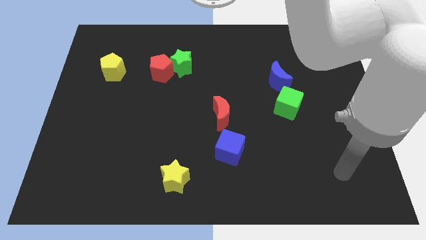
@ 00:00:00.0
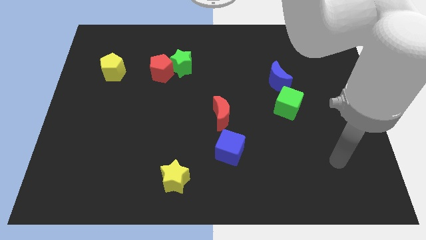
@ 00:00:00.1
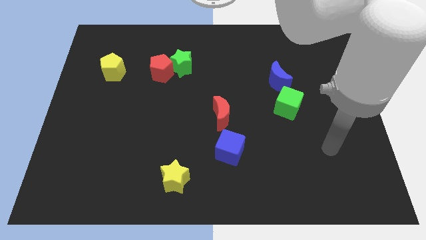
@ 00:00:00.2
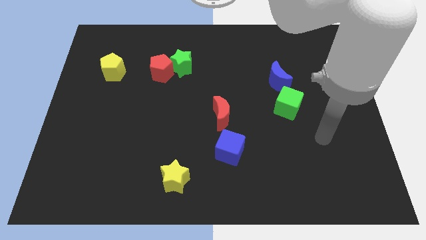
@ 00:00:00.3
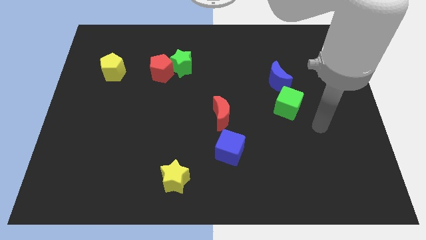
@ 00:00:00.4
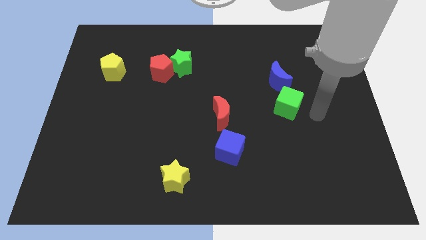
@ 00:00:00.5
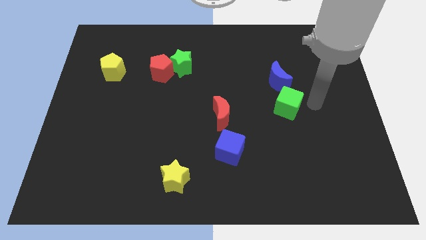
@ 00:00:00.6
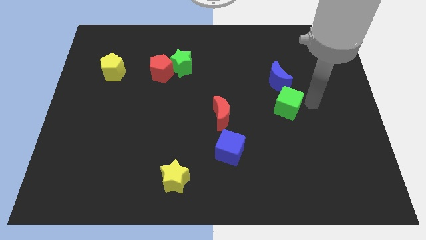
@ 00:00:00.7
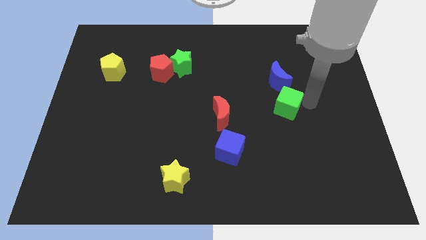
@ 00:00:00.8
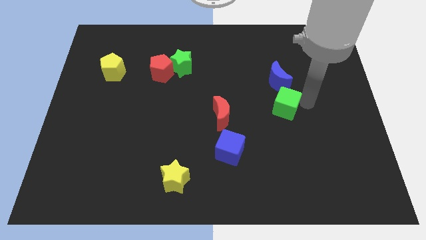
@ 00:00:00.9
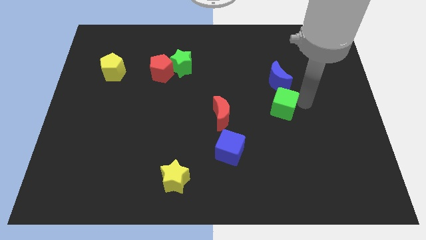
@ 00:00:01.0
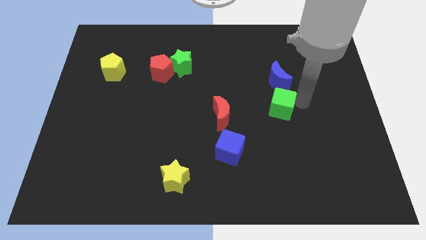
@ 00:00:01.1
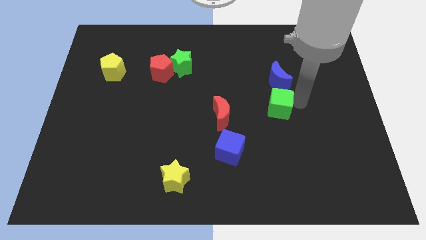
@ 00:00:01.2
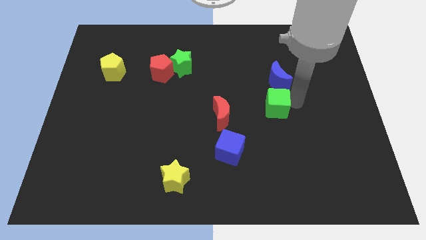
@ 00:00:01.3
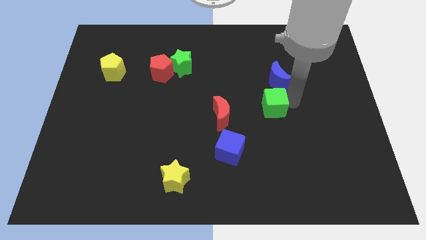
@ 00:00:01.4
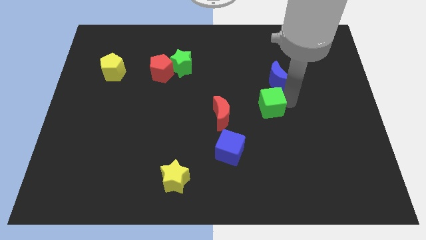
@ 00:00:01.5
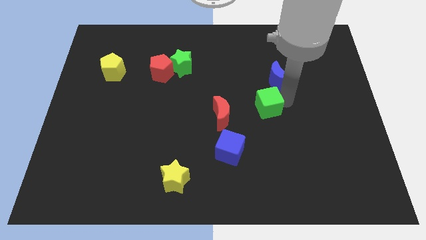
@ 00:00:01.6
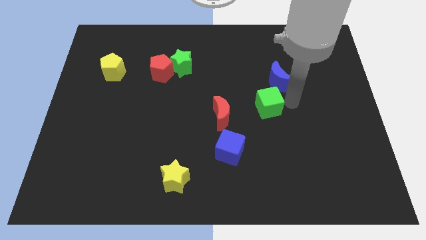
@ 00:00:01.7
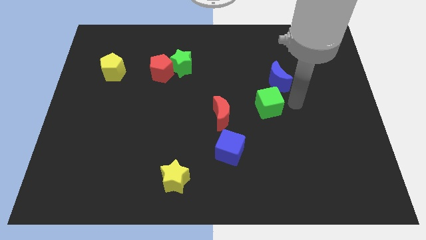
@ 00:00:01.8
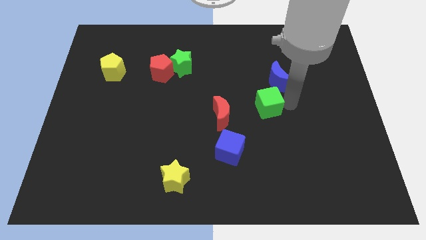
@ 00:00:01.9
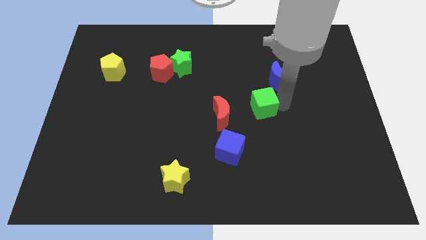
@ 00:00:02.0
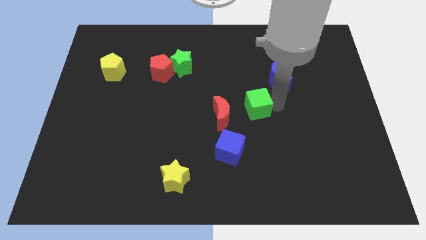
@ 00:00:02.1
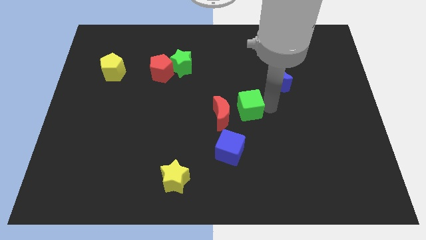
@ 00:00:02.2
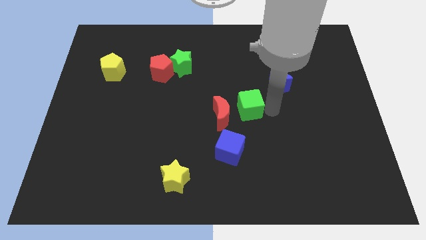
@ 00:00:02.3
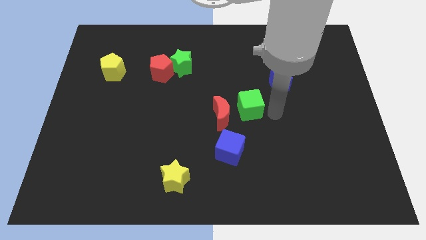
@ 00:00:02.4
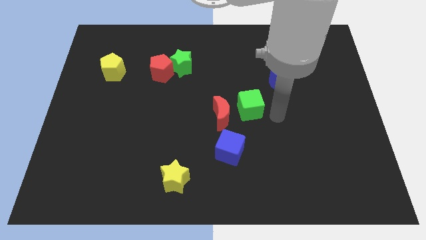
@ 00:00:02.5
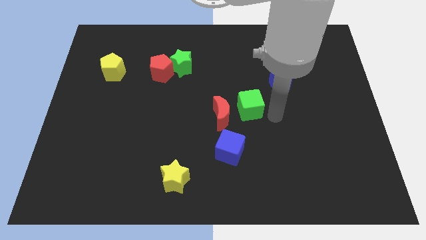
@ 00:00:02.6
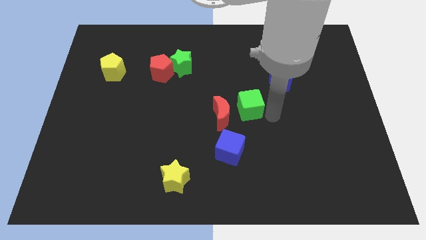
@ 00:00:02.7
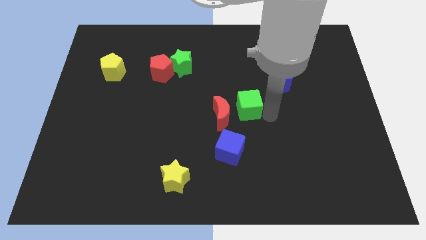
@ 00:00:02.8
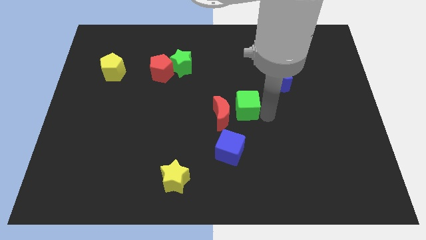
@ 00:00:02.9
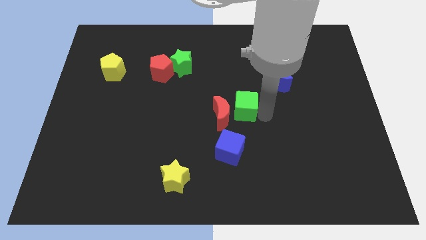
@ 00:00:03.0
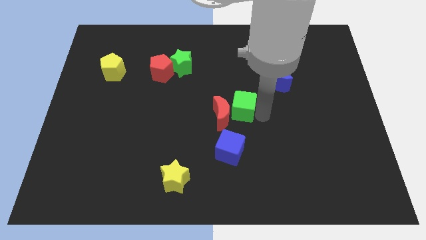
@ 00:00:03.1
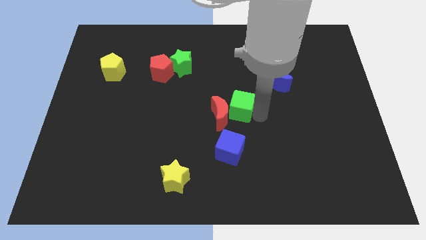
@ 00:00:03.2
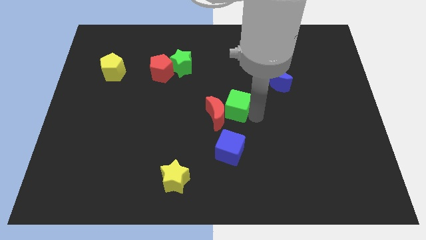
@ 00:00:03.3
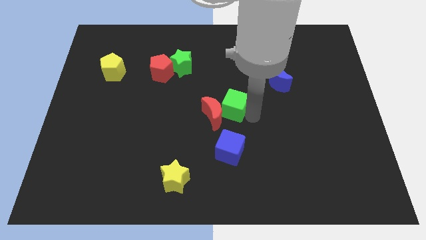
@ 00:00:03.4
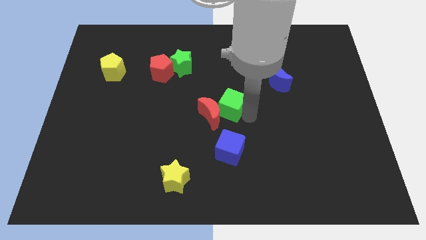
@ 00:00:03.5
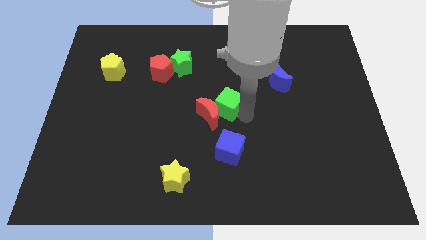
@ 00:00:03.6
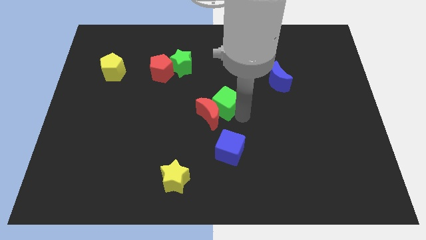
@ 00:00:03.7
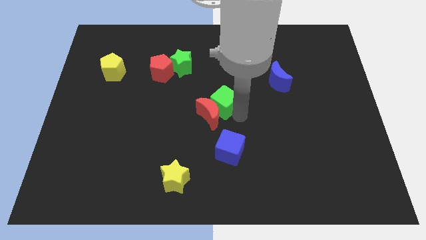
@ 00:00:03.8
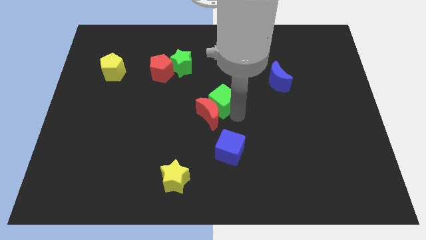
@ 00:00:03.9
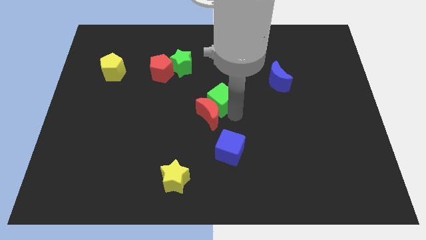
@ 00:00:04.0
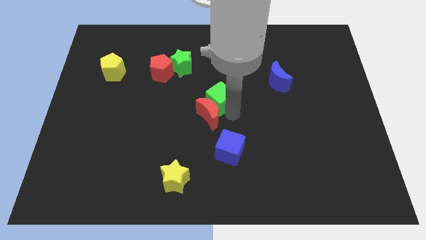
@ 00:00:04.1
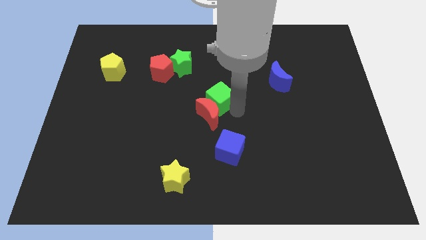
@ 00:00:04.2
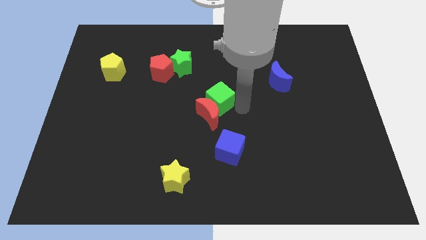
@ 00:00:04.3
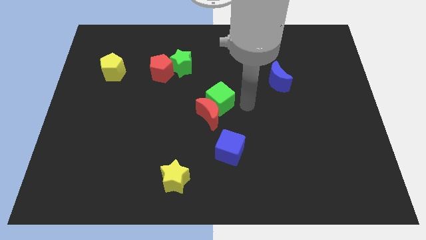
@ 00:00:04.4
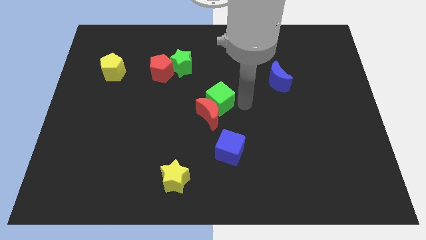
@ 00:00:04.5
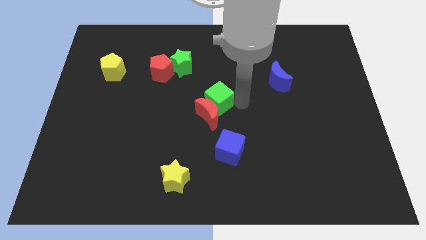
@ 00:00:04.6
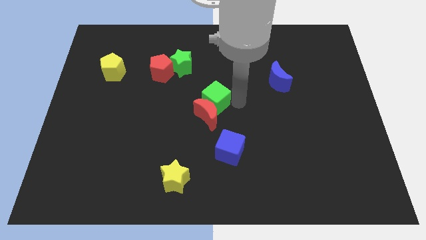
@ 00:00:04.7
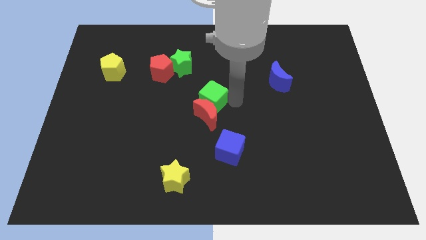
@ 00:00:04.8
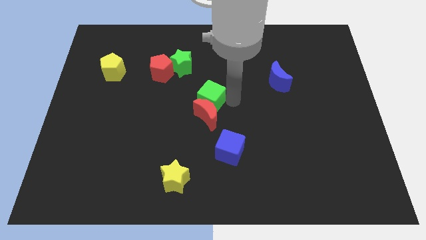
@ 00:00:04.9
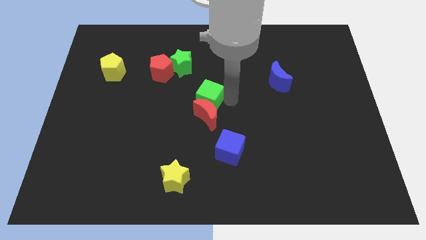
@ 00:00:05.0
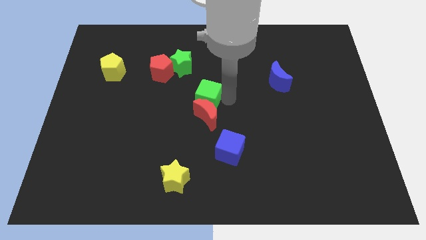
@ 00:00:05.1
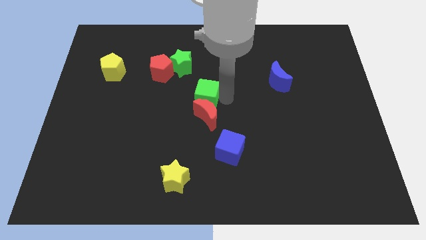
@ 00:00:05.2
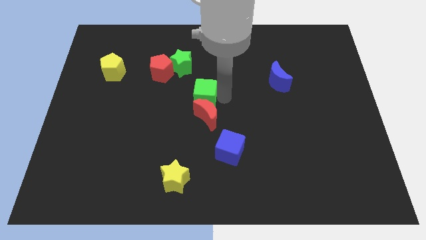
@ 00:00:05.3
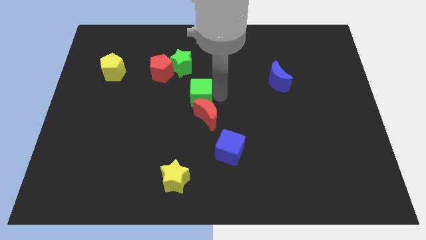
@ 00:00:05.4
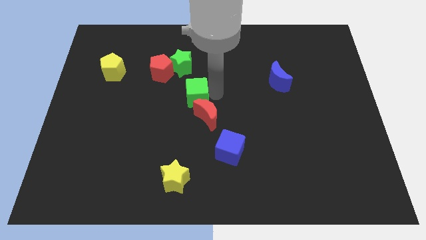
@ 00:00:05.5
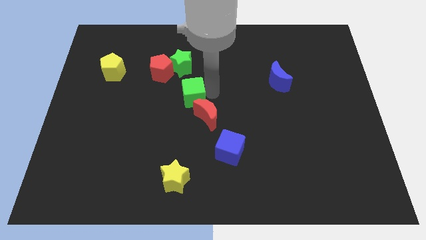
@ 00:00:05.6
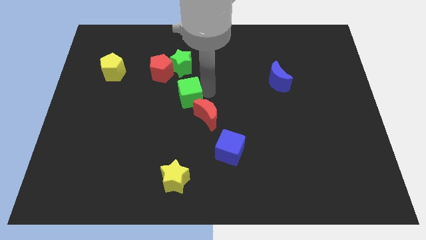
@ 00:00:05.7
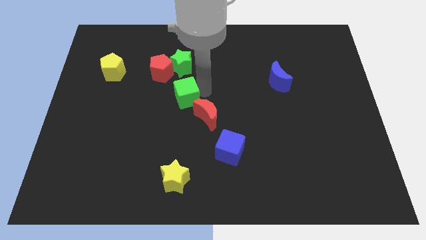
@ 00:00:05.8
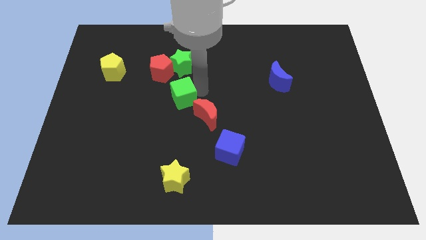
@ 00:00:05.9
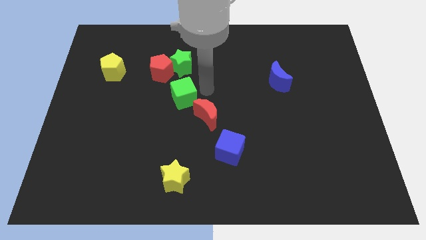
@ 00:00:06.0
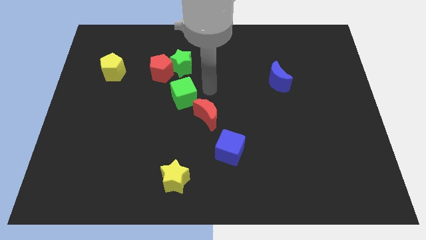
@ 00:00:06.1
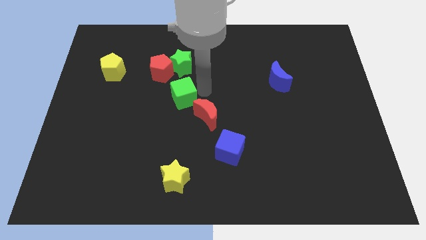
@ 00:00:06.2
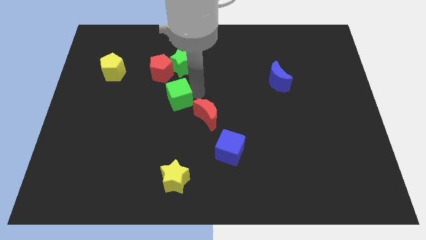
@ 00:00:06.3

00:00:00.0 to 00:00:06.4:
put the green cube to the bottom side of the red pentagon
